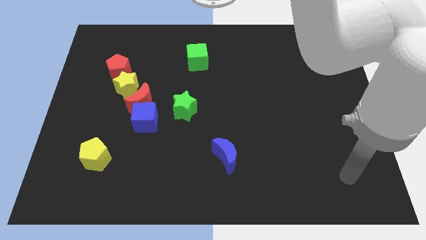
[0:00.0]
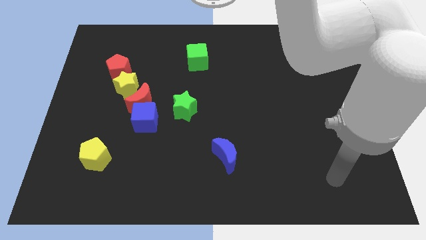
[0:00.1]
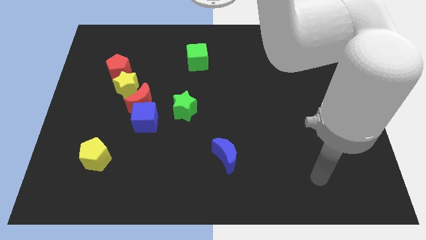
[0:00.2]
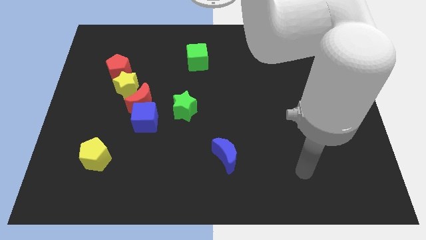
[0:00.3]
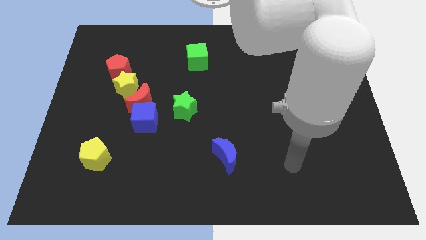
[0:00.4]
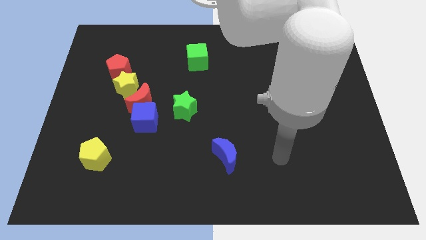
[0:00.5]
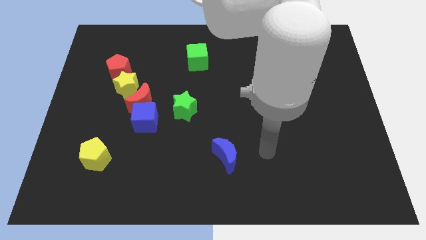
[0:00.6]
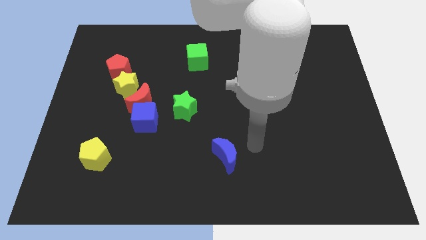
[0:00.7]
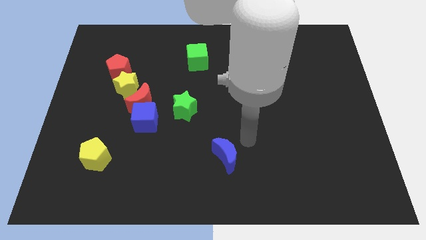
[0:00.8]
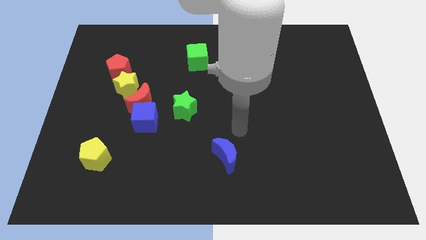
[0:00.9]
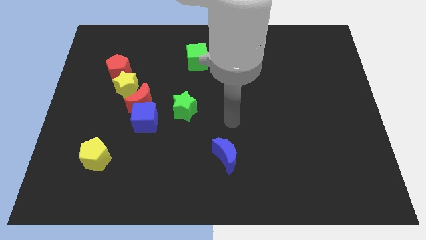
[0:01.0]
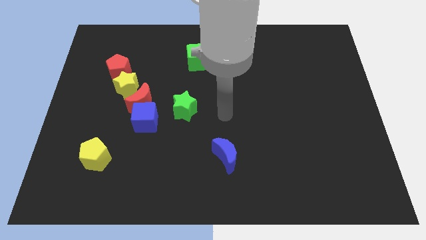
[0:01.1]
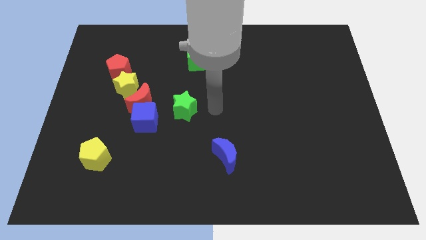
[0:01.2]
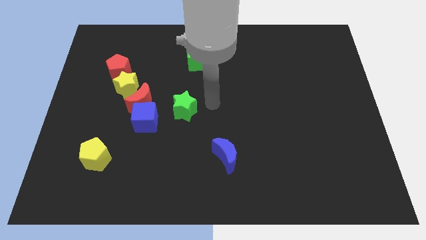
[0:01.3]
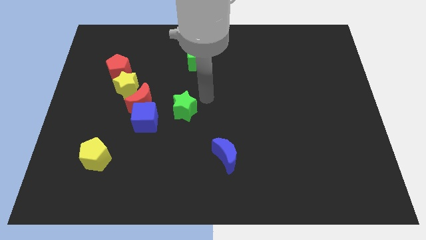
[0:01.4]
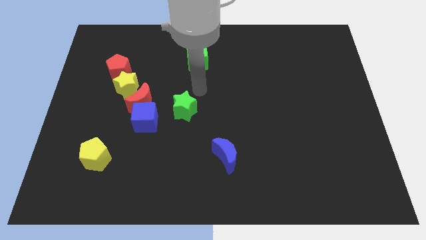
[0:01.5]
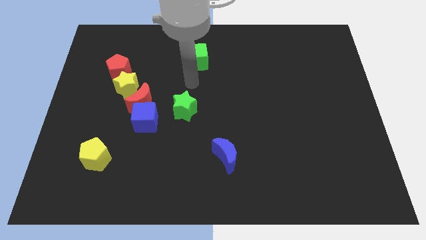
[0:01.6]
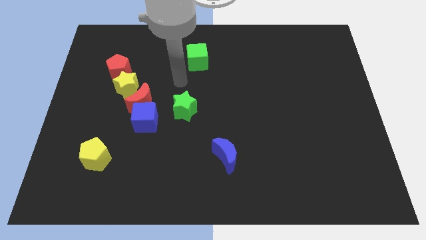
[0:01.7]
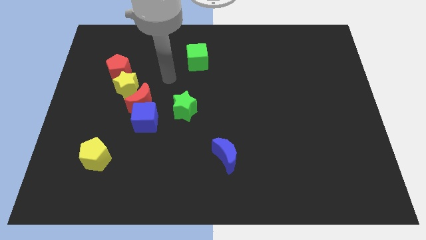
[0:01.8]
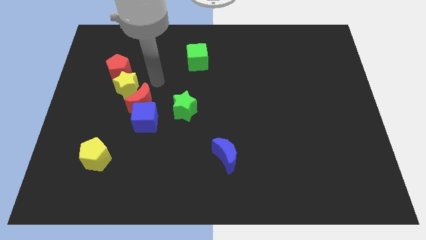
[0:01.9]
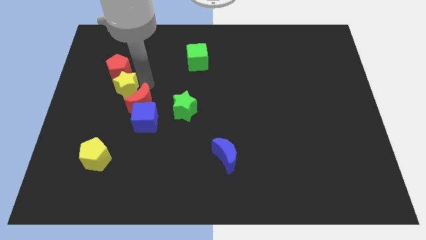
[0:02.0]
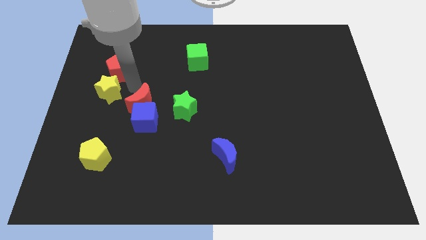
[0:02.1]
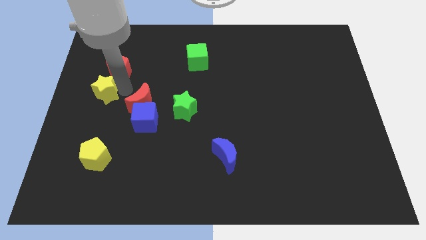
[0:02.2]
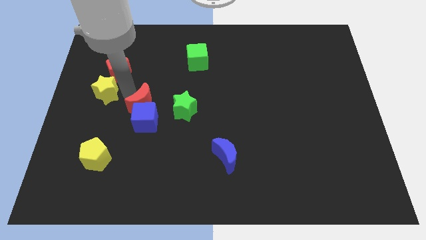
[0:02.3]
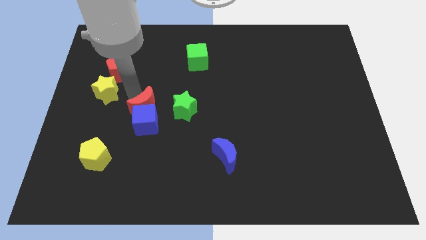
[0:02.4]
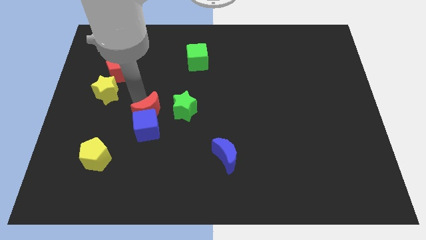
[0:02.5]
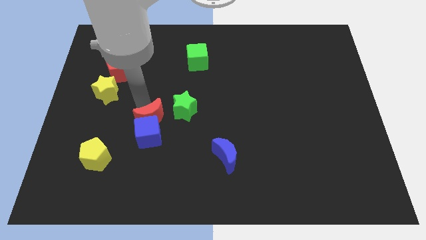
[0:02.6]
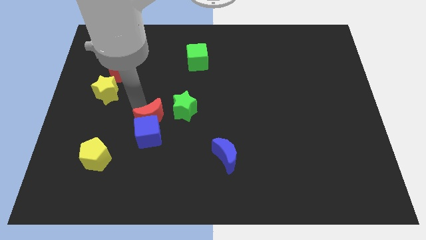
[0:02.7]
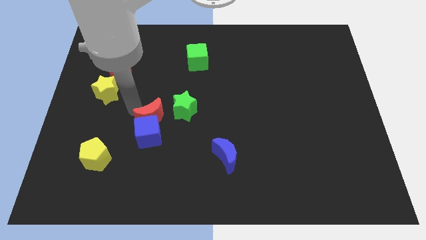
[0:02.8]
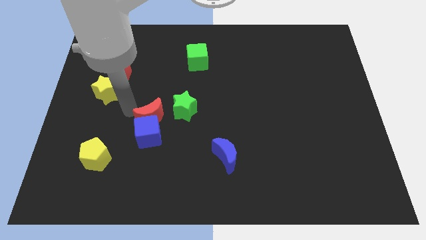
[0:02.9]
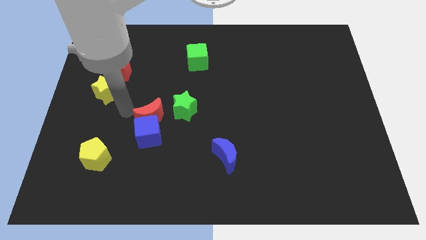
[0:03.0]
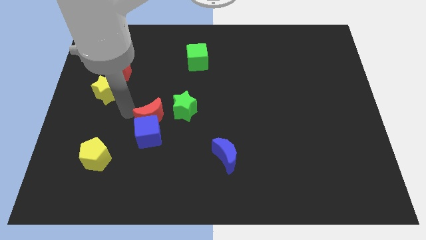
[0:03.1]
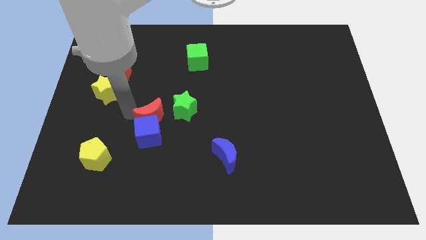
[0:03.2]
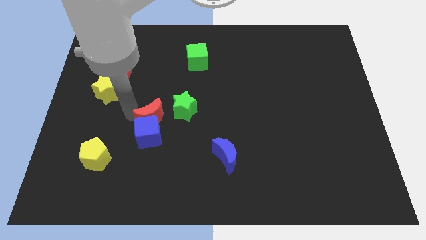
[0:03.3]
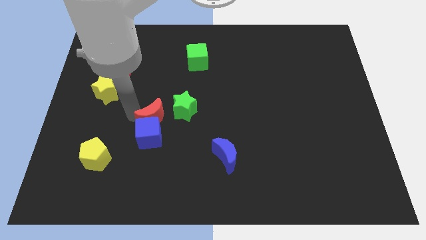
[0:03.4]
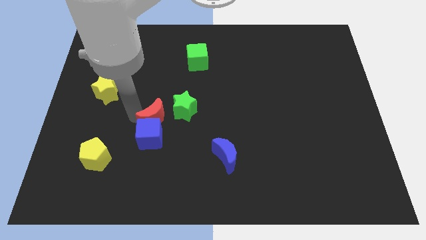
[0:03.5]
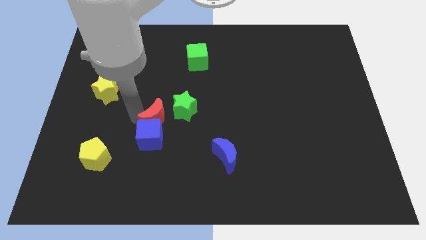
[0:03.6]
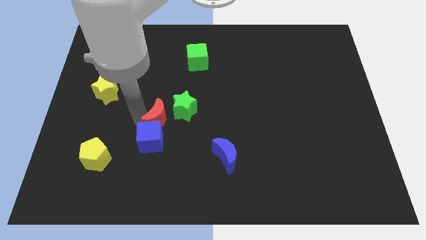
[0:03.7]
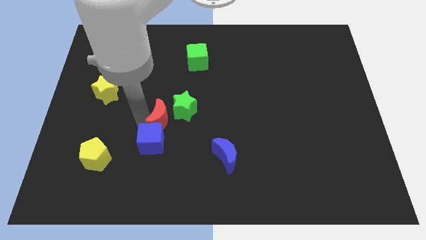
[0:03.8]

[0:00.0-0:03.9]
move the red moon down and to the right somewhat

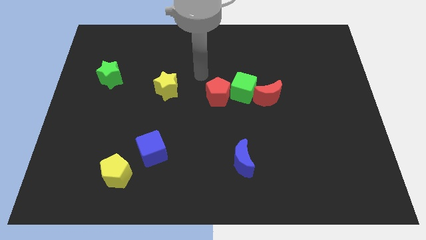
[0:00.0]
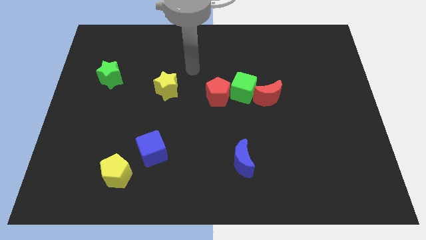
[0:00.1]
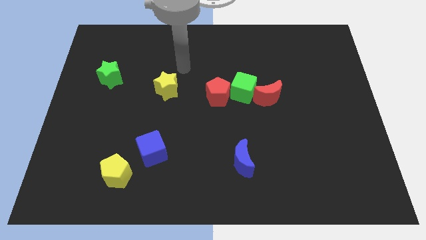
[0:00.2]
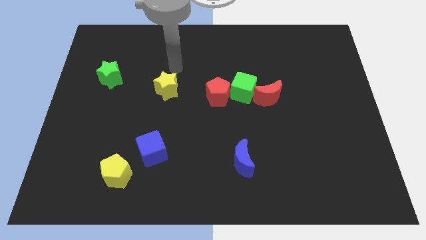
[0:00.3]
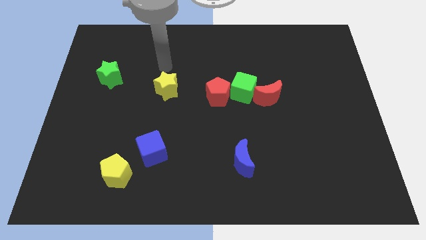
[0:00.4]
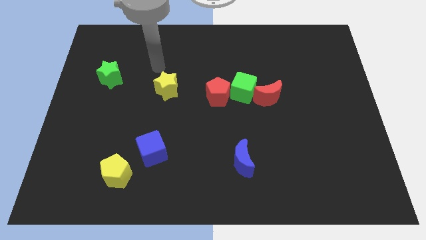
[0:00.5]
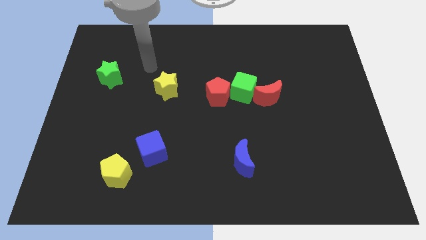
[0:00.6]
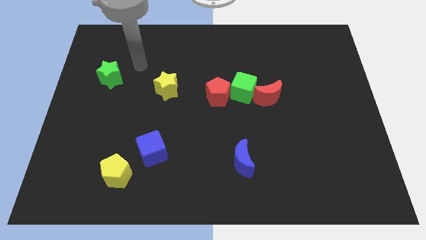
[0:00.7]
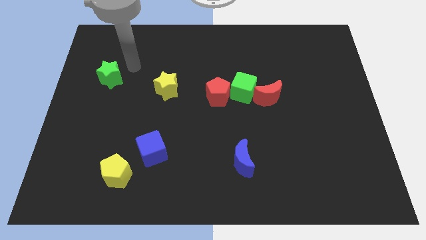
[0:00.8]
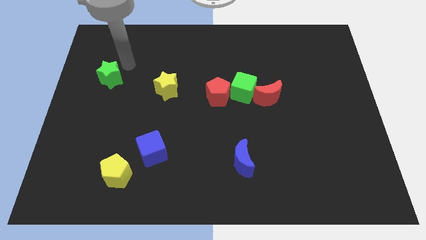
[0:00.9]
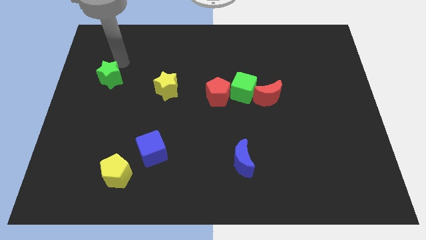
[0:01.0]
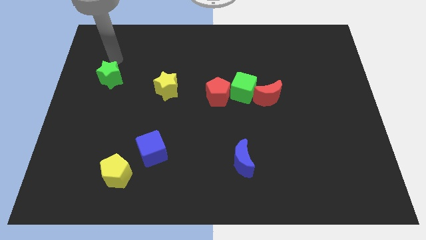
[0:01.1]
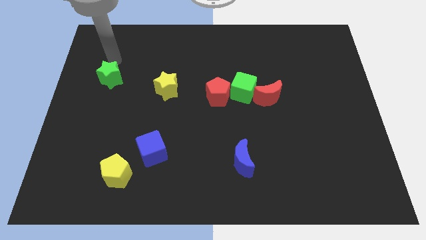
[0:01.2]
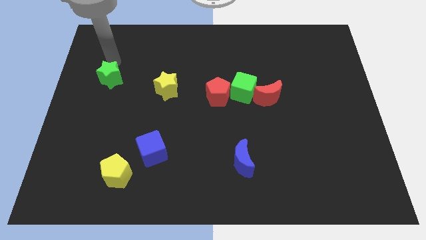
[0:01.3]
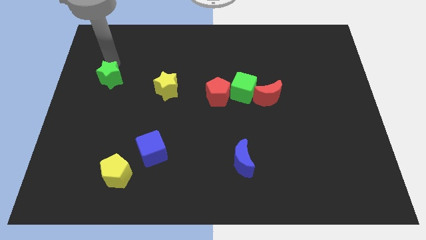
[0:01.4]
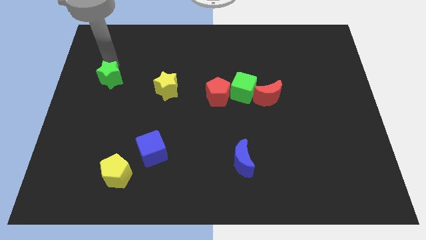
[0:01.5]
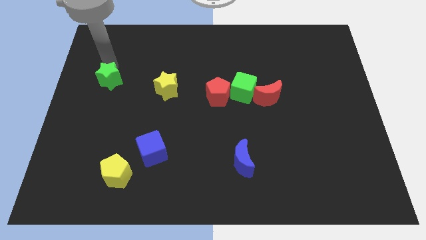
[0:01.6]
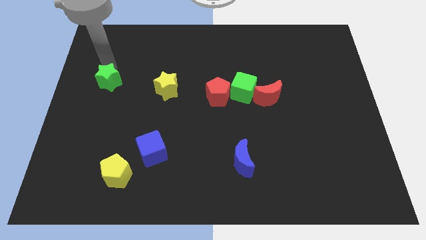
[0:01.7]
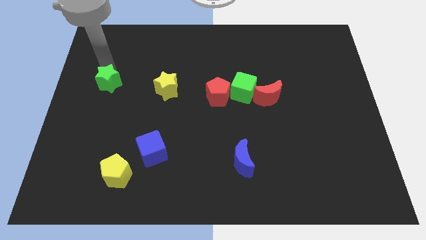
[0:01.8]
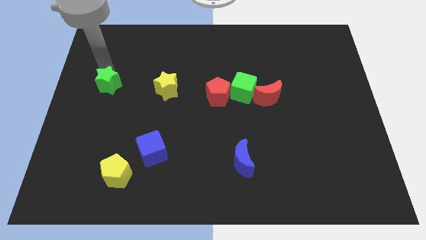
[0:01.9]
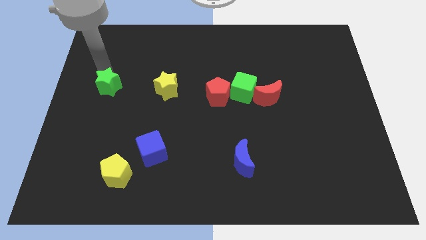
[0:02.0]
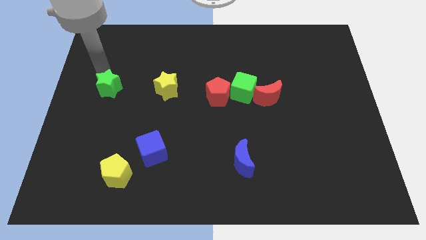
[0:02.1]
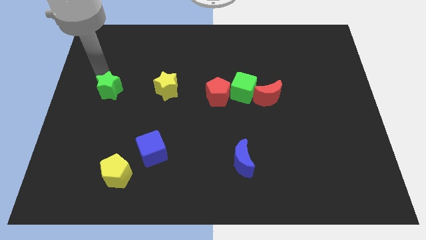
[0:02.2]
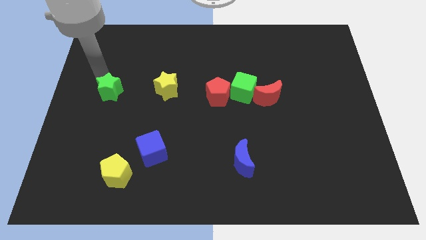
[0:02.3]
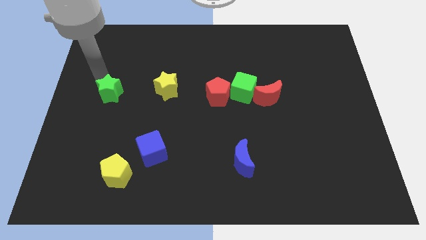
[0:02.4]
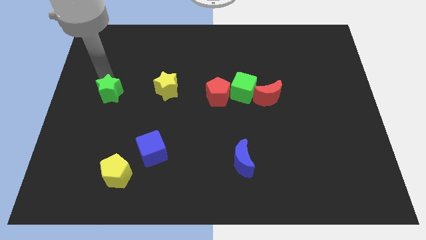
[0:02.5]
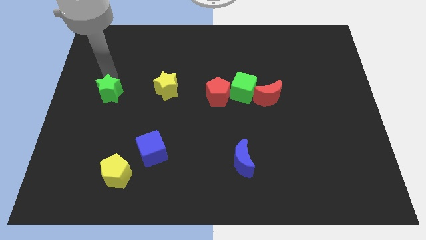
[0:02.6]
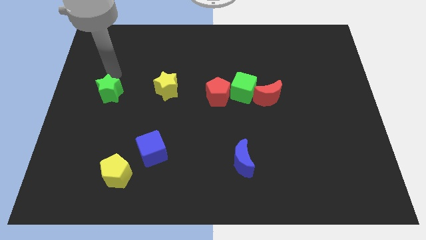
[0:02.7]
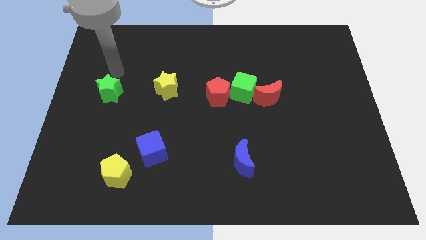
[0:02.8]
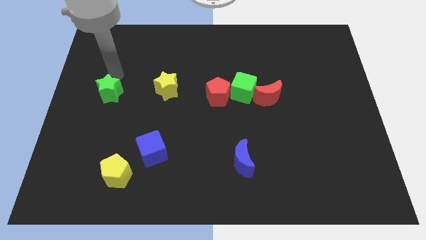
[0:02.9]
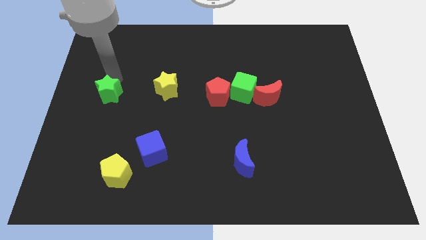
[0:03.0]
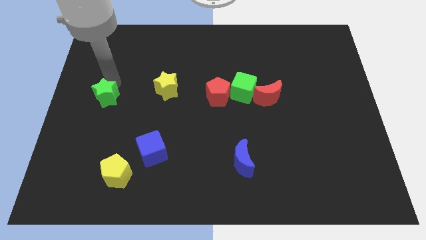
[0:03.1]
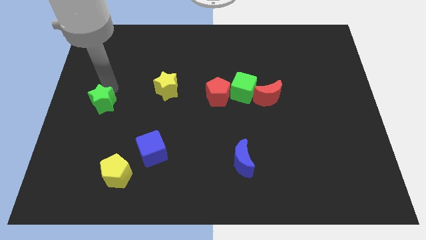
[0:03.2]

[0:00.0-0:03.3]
slightly push the green star downwards

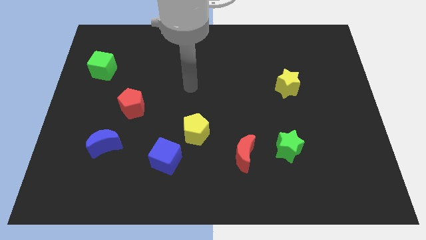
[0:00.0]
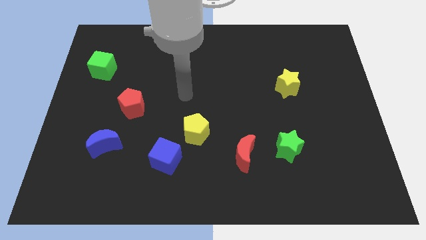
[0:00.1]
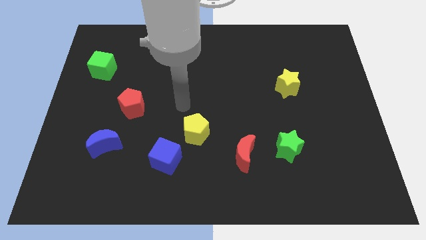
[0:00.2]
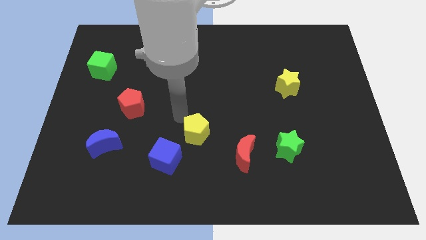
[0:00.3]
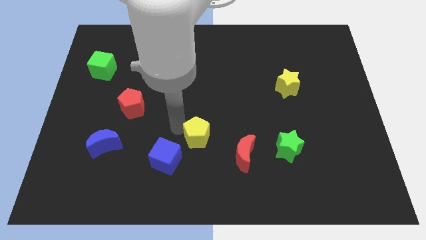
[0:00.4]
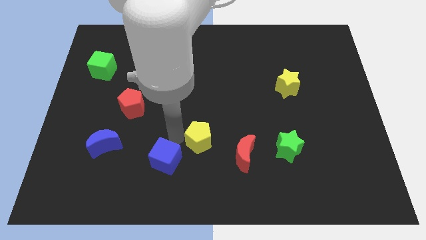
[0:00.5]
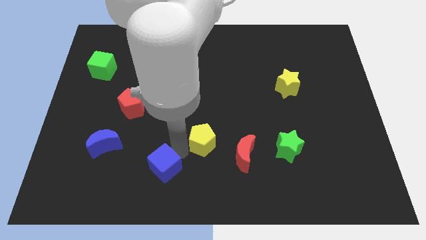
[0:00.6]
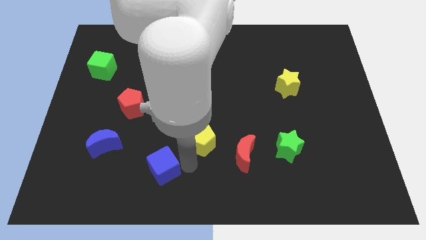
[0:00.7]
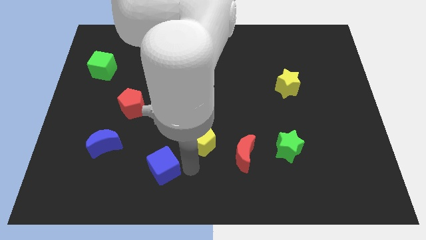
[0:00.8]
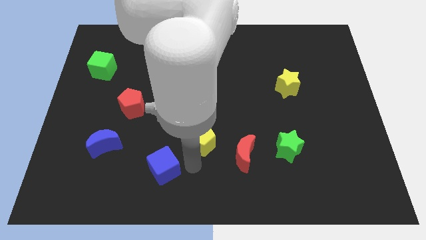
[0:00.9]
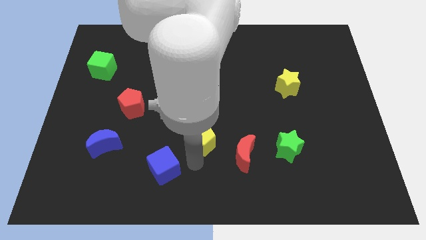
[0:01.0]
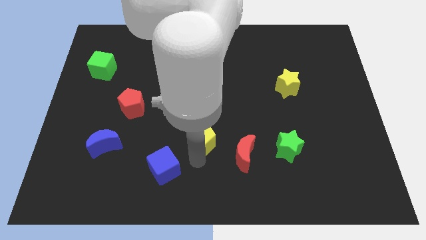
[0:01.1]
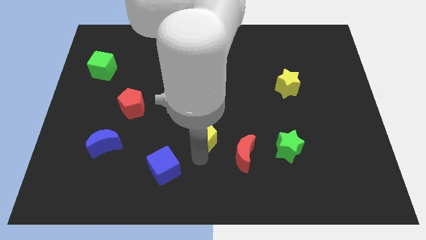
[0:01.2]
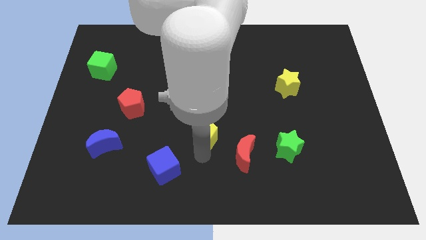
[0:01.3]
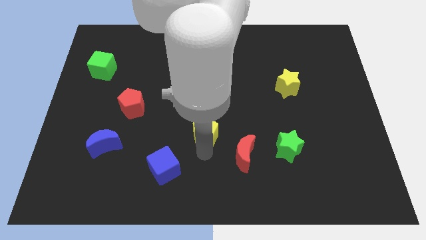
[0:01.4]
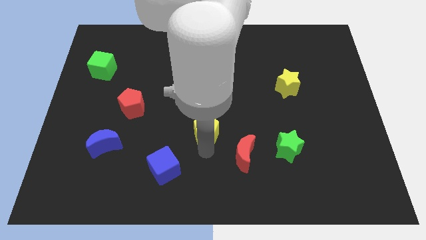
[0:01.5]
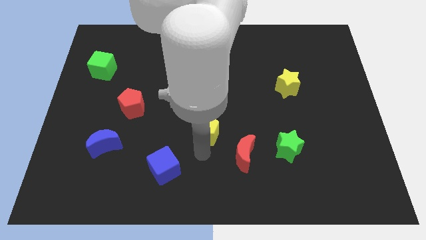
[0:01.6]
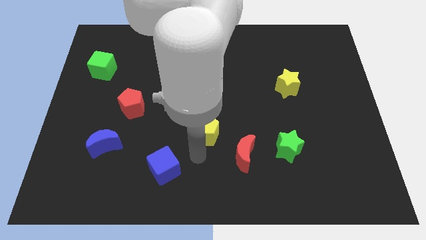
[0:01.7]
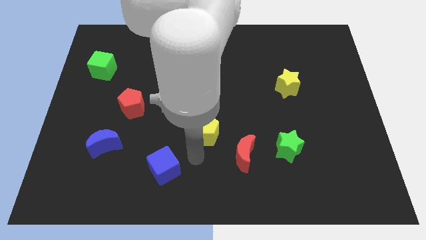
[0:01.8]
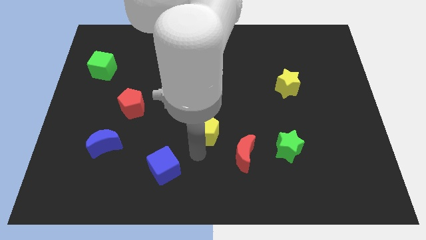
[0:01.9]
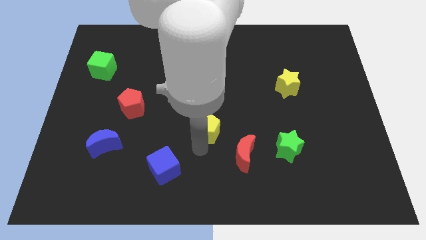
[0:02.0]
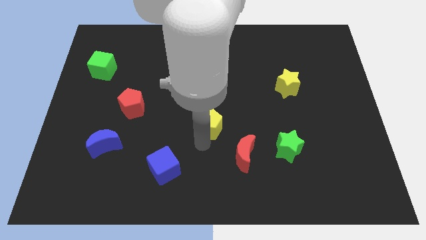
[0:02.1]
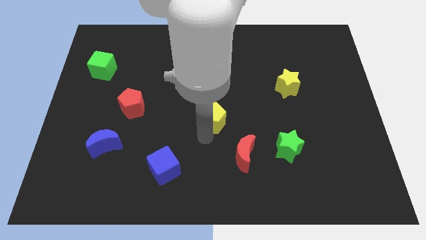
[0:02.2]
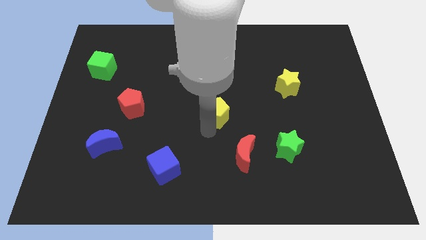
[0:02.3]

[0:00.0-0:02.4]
move the yellow pentagon a little upwards and then to the right
